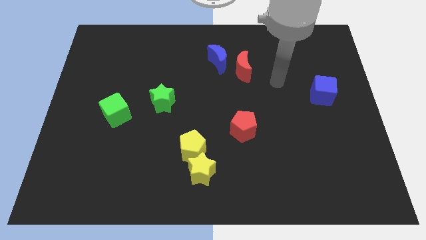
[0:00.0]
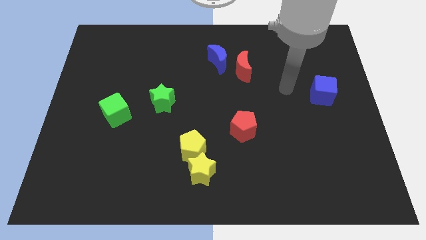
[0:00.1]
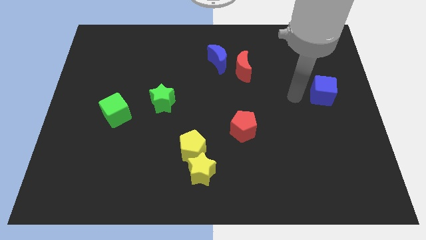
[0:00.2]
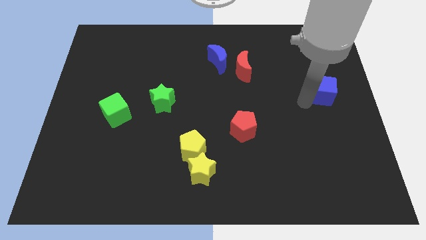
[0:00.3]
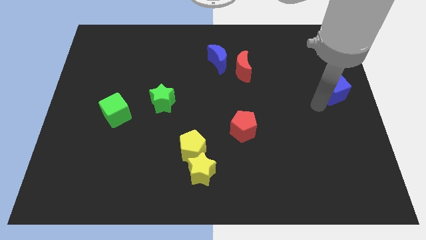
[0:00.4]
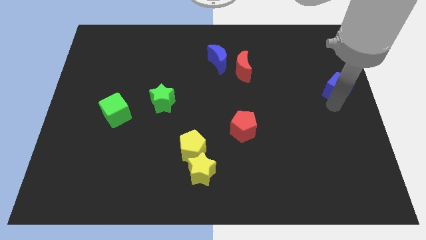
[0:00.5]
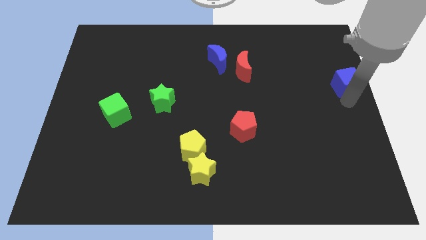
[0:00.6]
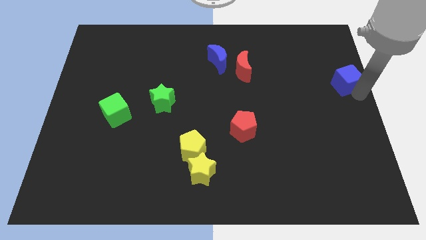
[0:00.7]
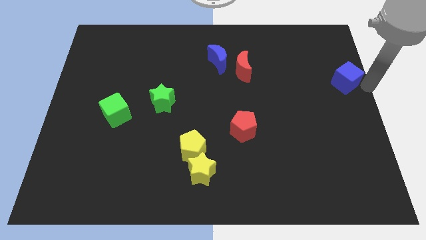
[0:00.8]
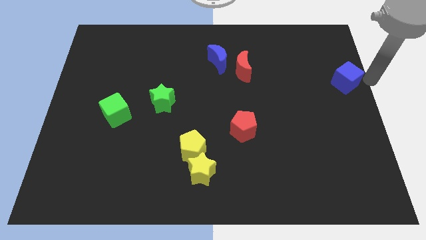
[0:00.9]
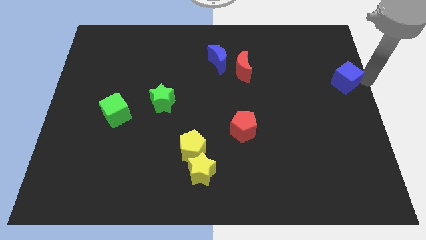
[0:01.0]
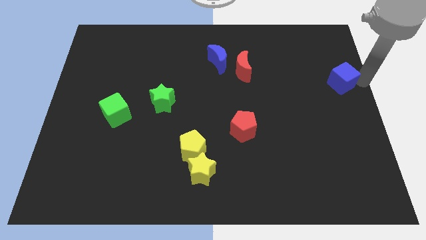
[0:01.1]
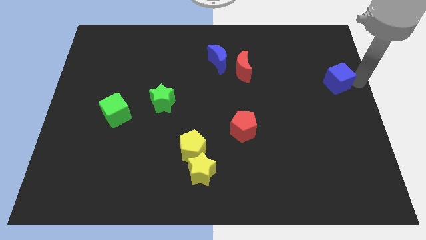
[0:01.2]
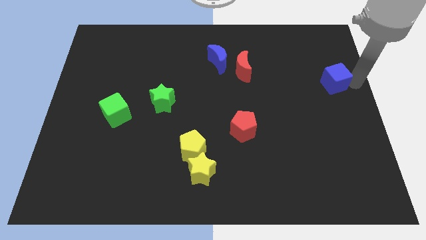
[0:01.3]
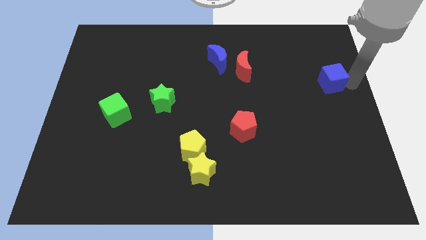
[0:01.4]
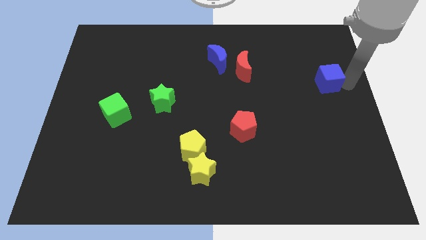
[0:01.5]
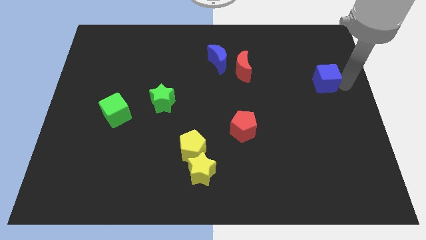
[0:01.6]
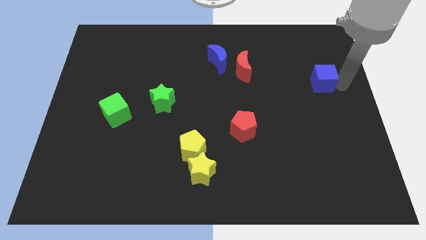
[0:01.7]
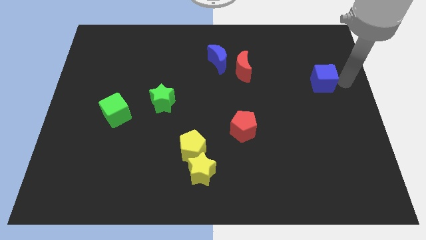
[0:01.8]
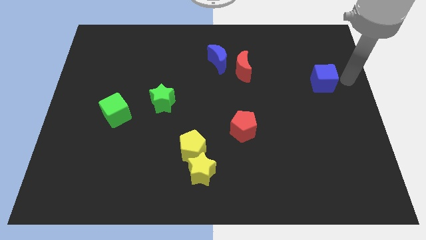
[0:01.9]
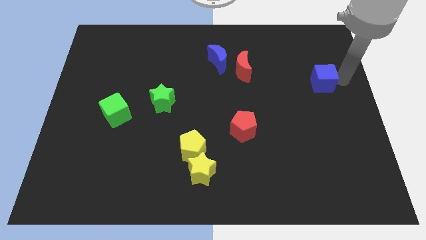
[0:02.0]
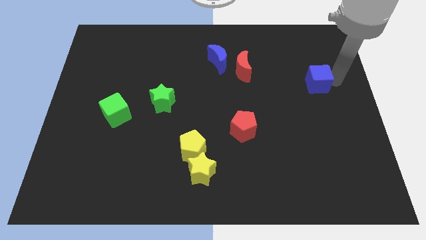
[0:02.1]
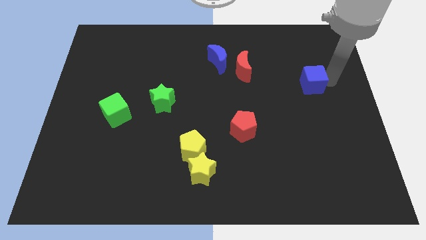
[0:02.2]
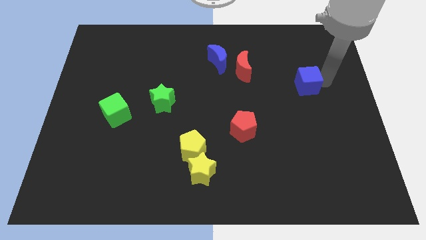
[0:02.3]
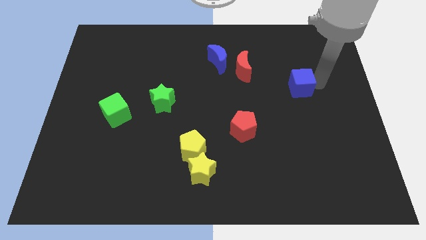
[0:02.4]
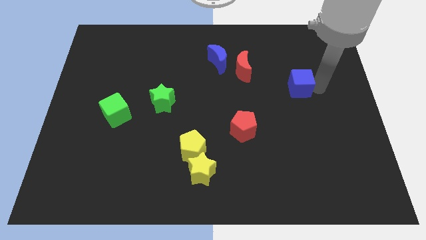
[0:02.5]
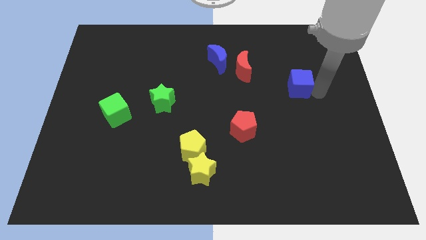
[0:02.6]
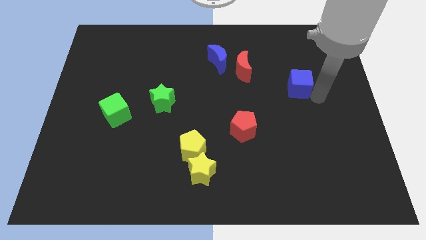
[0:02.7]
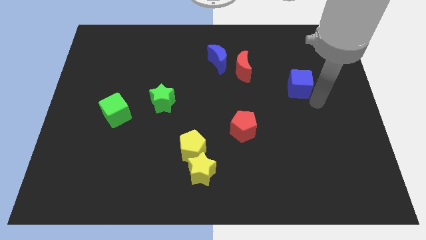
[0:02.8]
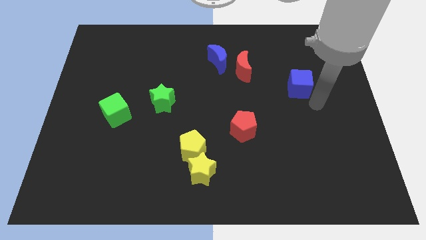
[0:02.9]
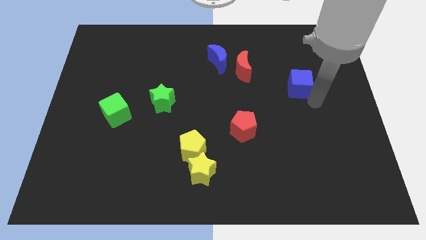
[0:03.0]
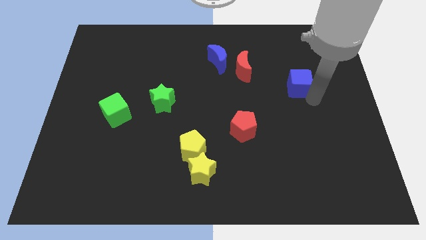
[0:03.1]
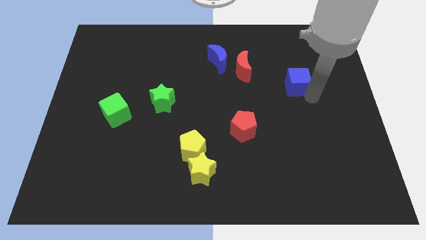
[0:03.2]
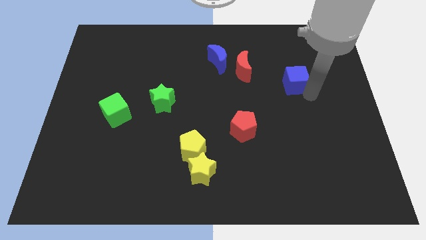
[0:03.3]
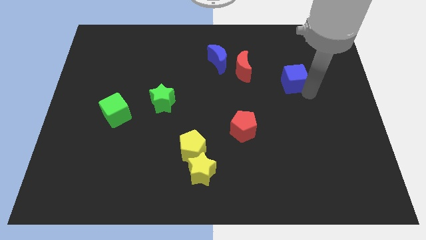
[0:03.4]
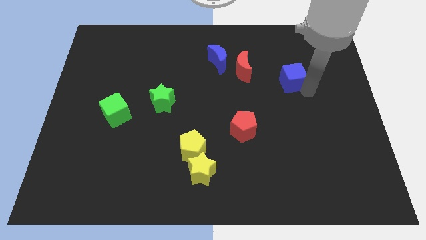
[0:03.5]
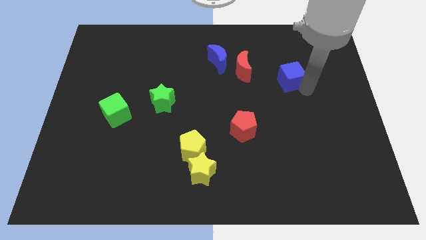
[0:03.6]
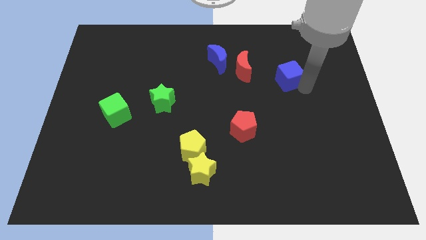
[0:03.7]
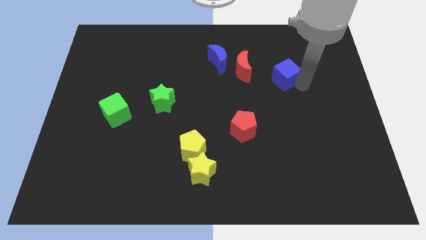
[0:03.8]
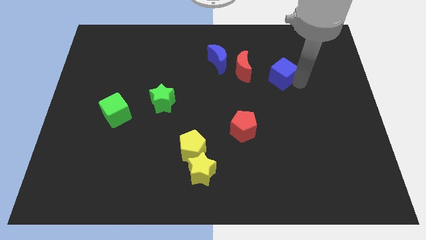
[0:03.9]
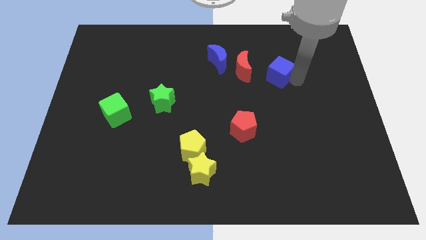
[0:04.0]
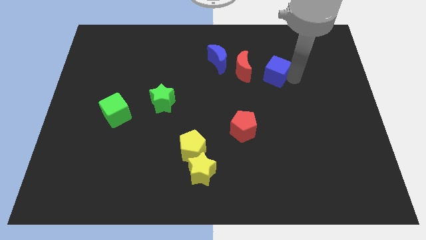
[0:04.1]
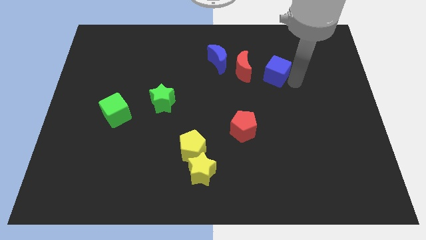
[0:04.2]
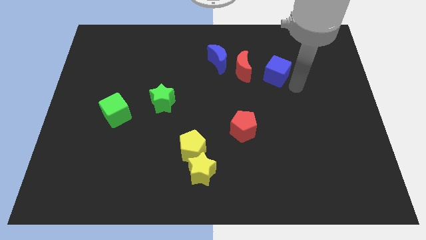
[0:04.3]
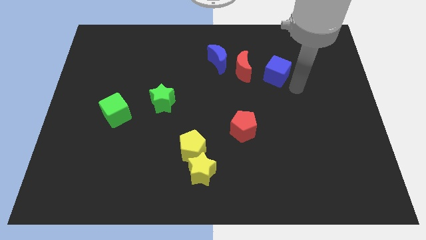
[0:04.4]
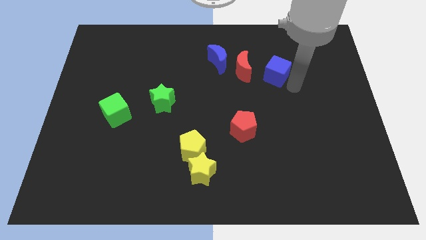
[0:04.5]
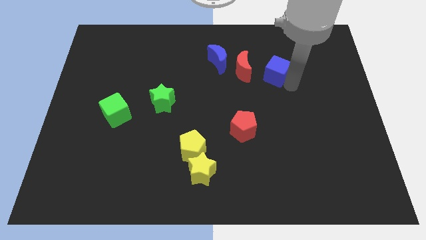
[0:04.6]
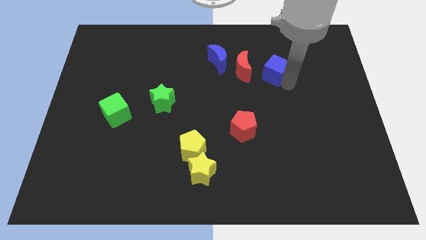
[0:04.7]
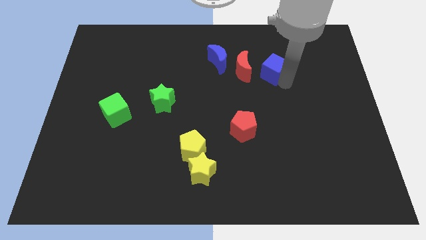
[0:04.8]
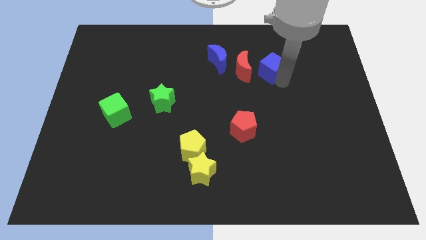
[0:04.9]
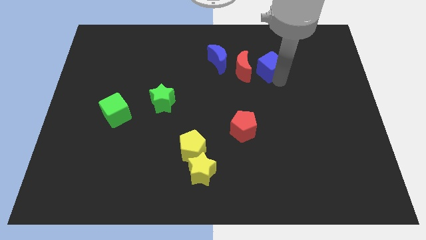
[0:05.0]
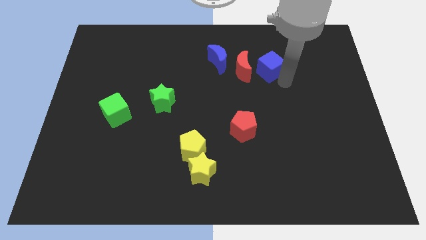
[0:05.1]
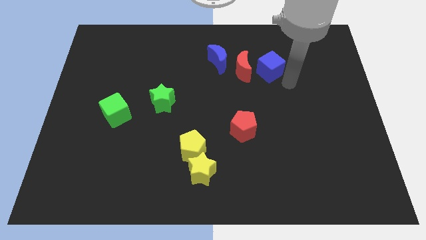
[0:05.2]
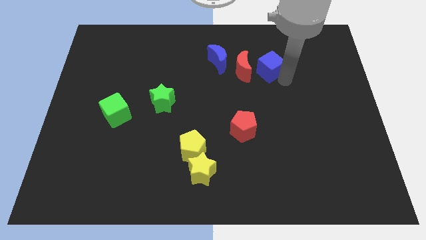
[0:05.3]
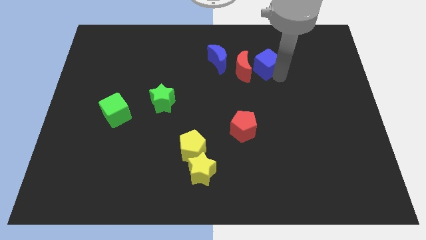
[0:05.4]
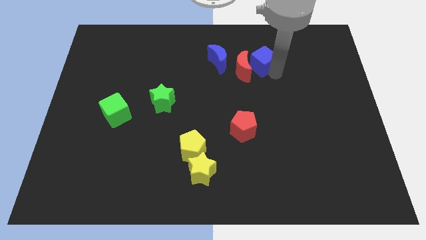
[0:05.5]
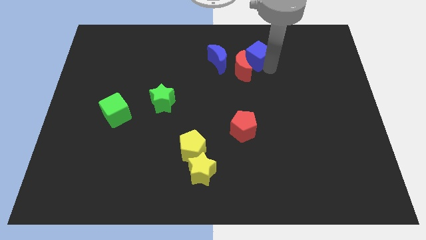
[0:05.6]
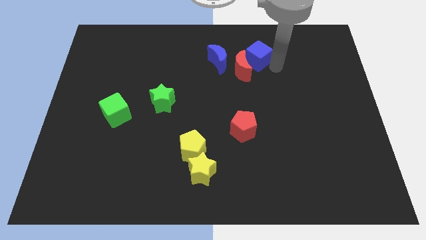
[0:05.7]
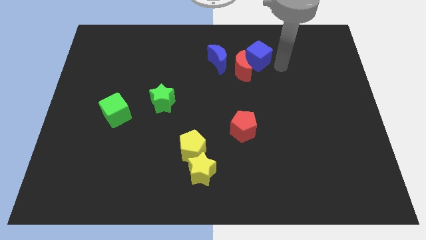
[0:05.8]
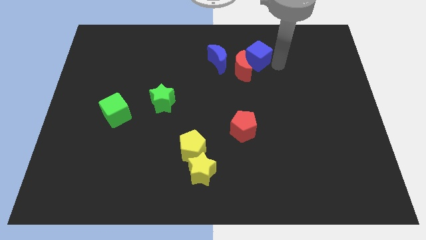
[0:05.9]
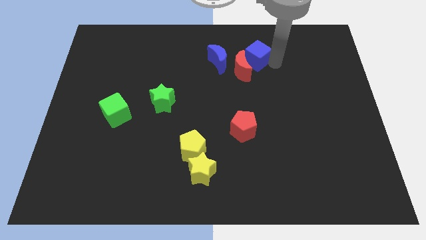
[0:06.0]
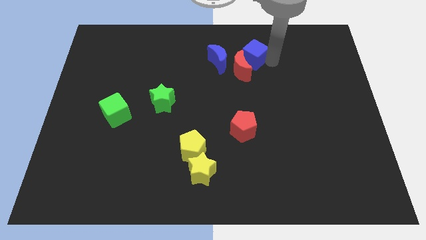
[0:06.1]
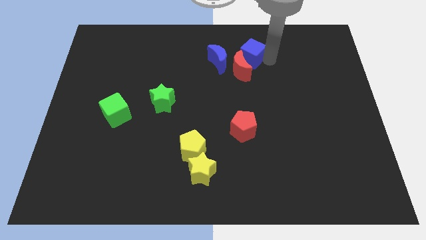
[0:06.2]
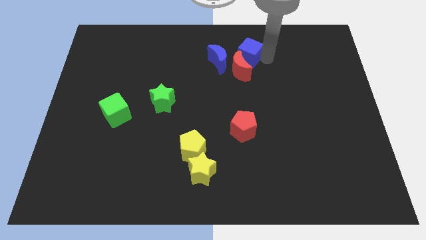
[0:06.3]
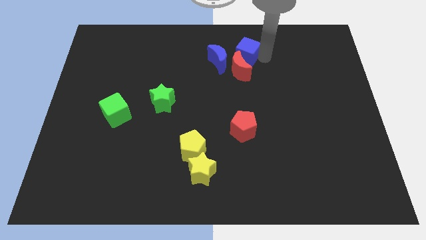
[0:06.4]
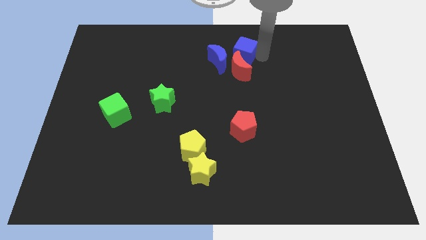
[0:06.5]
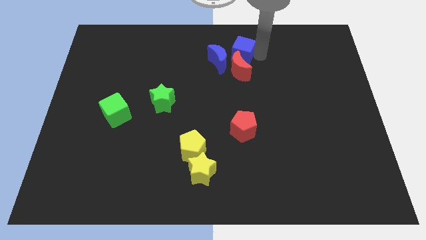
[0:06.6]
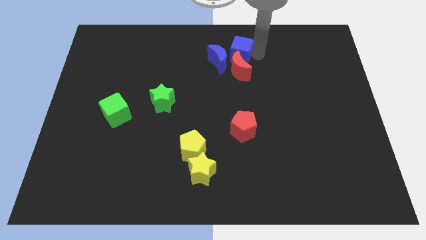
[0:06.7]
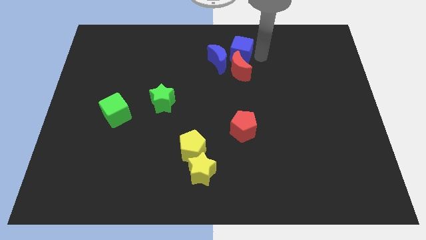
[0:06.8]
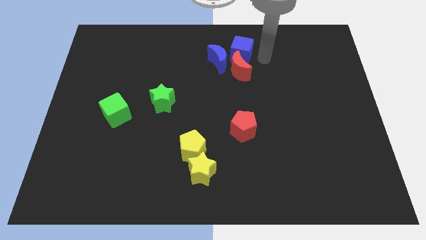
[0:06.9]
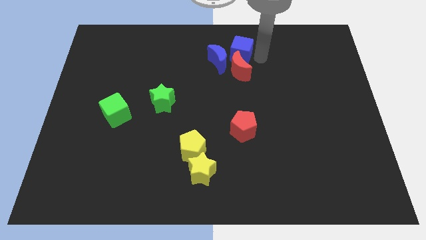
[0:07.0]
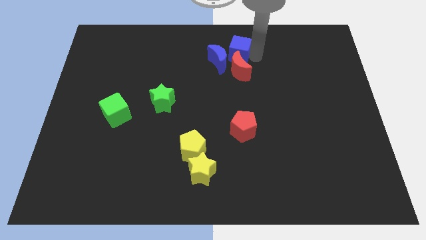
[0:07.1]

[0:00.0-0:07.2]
put the blue cube to the towards your base

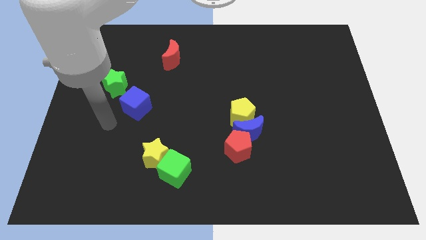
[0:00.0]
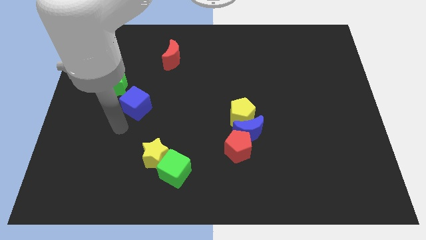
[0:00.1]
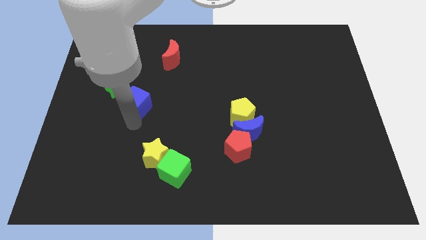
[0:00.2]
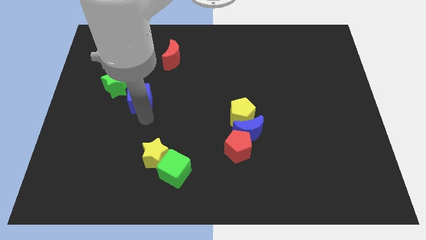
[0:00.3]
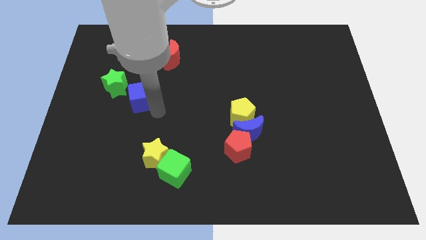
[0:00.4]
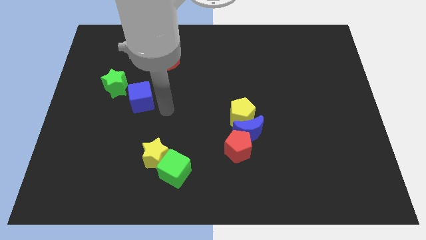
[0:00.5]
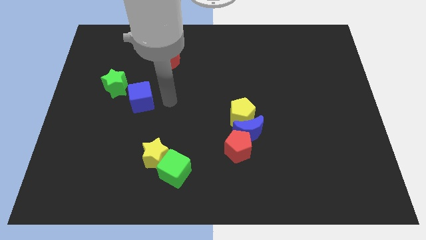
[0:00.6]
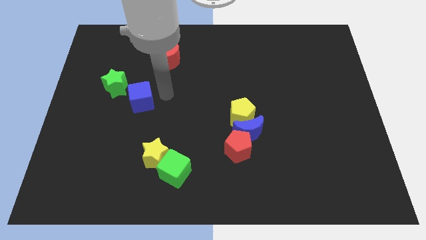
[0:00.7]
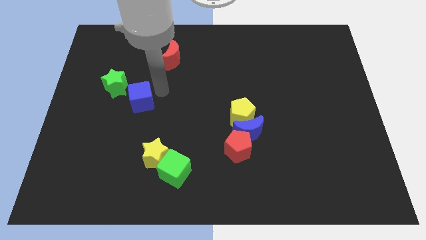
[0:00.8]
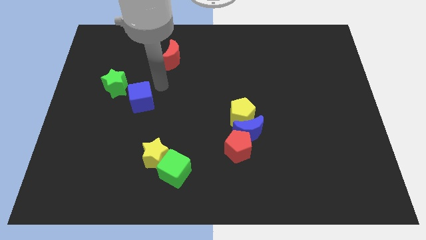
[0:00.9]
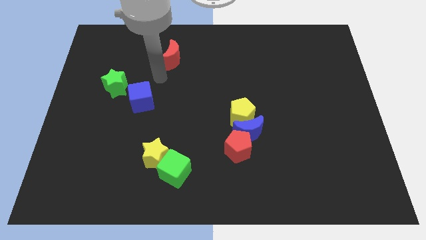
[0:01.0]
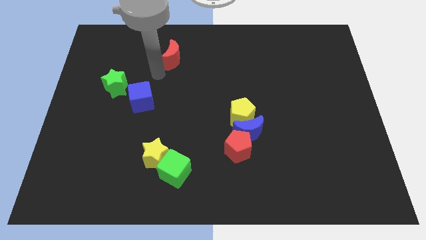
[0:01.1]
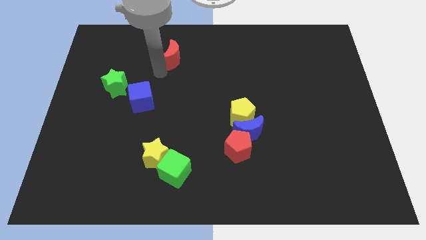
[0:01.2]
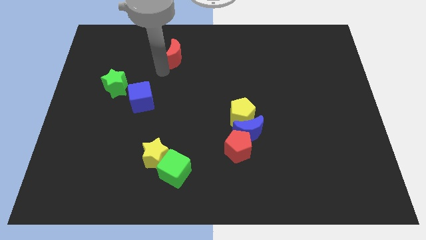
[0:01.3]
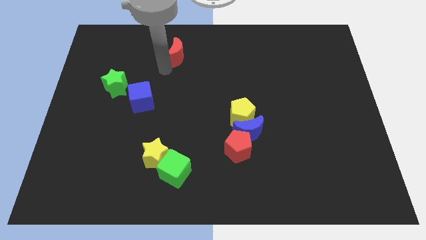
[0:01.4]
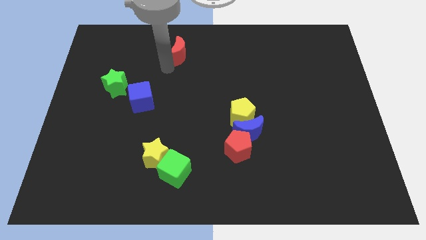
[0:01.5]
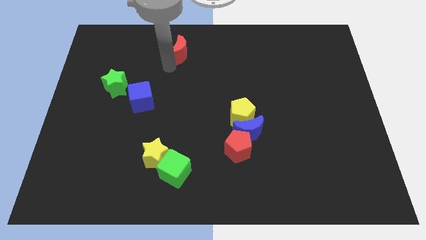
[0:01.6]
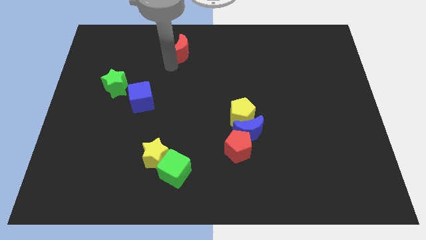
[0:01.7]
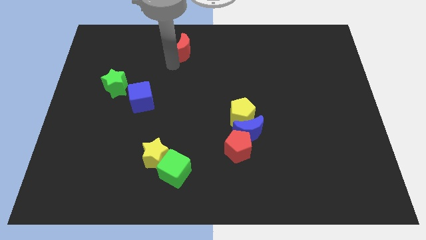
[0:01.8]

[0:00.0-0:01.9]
put the red moon to the top side
